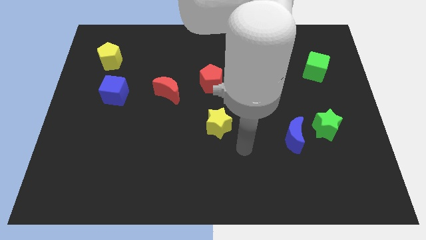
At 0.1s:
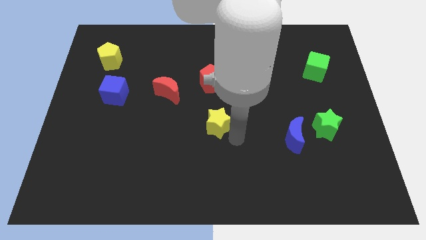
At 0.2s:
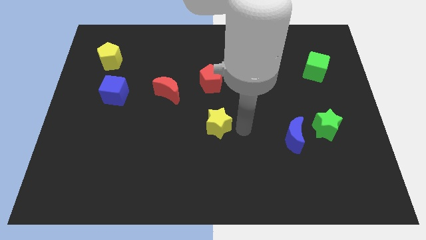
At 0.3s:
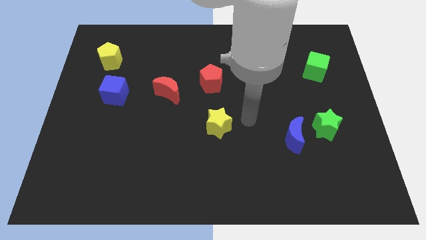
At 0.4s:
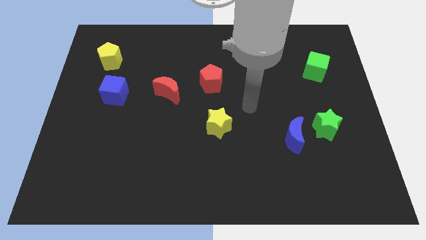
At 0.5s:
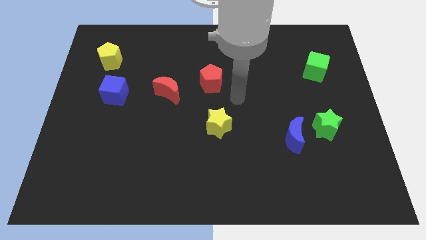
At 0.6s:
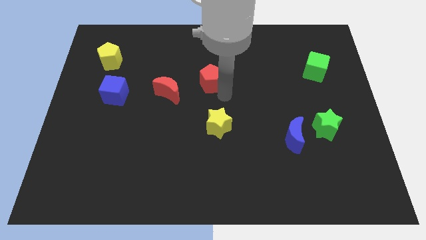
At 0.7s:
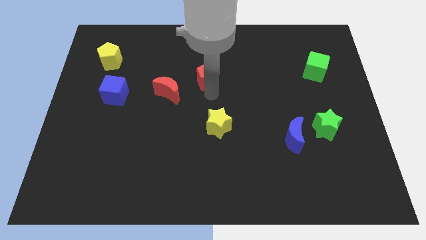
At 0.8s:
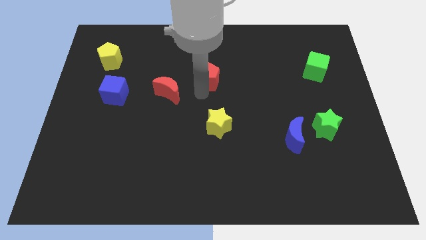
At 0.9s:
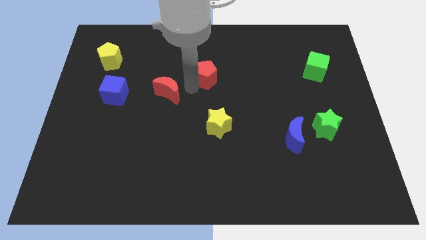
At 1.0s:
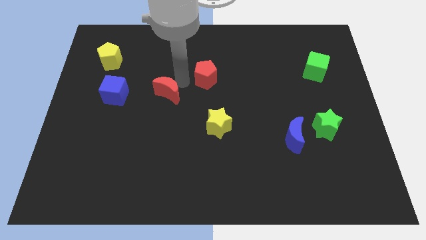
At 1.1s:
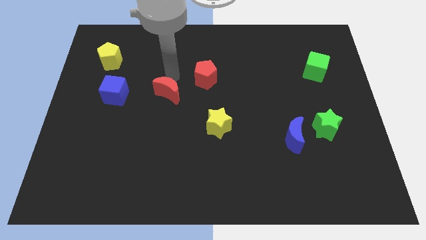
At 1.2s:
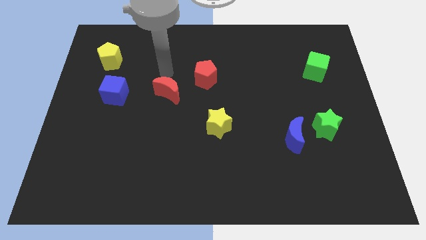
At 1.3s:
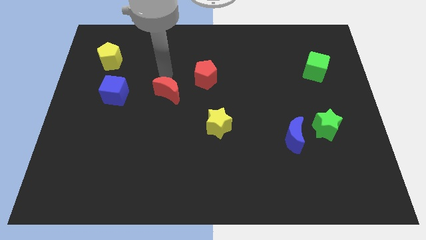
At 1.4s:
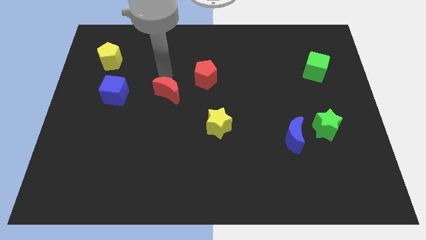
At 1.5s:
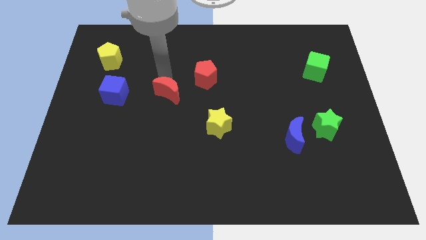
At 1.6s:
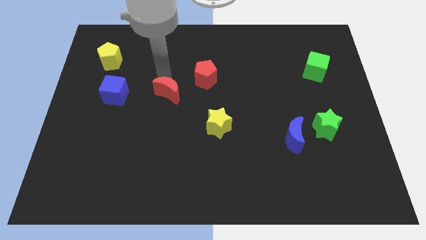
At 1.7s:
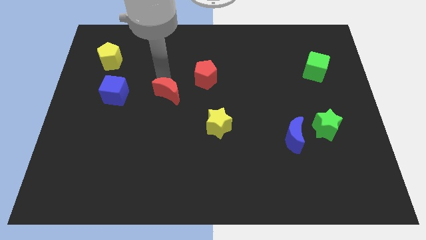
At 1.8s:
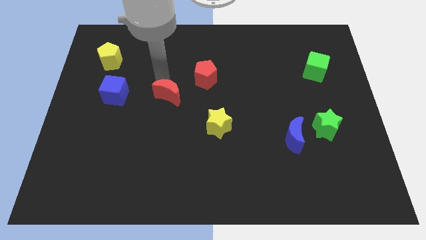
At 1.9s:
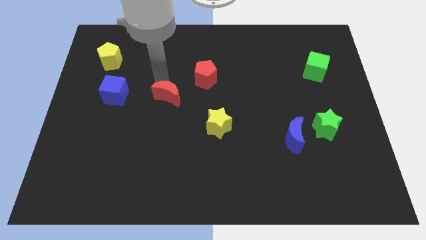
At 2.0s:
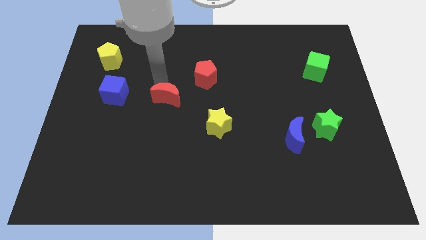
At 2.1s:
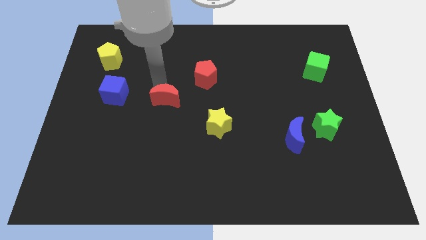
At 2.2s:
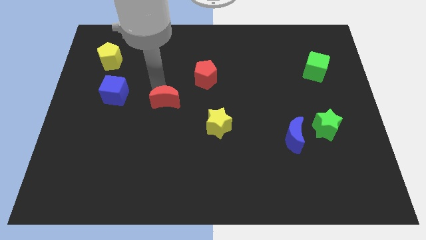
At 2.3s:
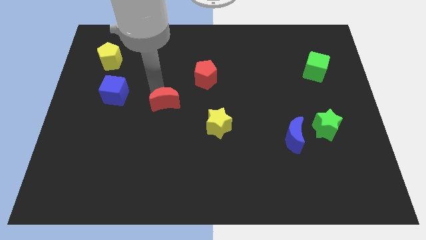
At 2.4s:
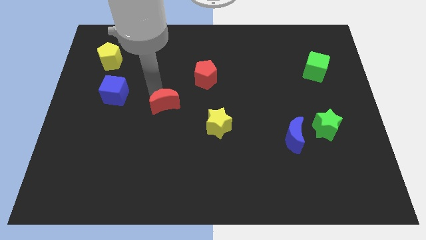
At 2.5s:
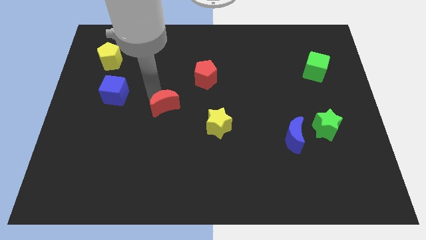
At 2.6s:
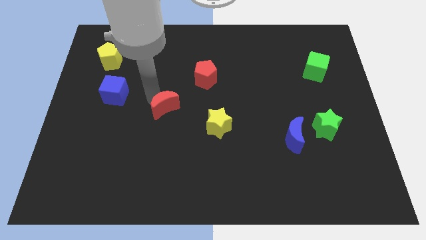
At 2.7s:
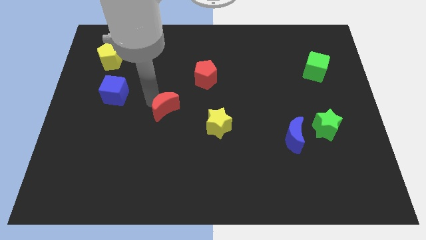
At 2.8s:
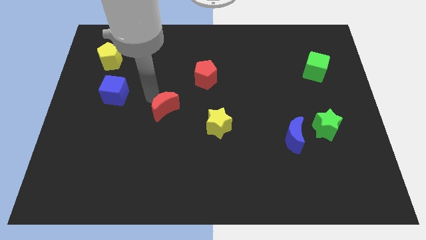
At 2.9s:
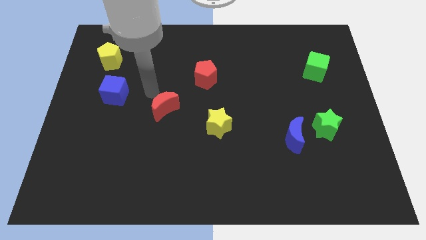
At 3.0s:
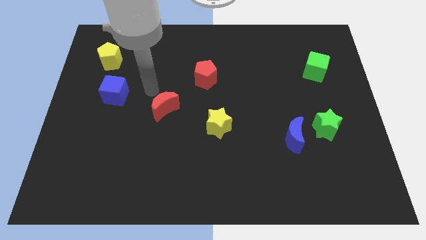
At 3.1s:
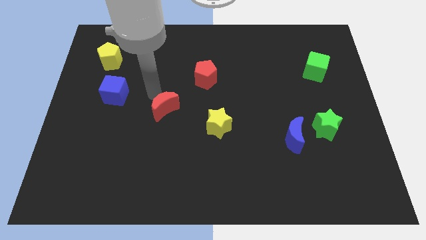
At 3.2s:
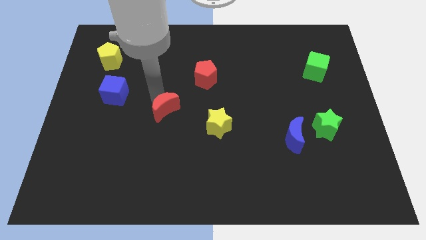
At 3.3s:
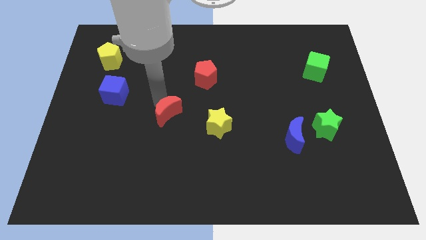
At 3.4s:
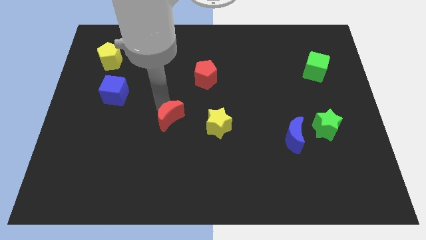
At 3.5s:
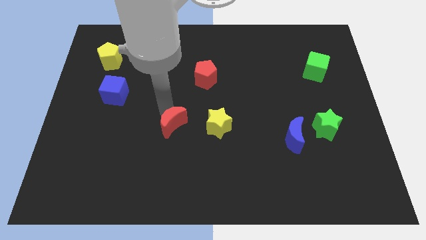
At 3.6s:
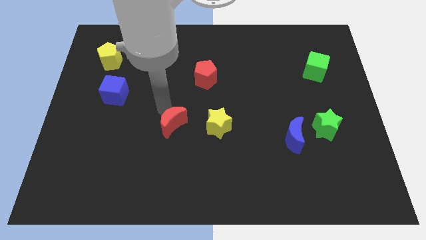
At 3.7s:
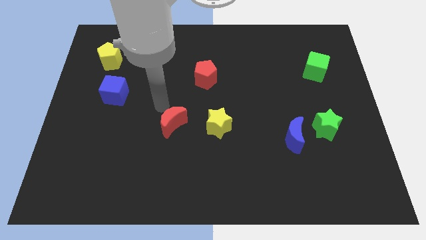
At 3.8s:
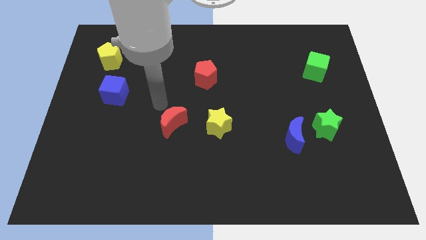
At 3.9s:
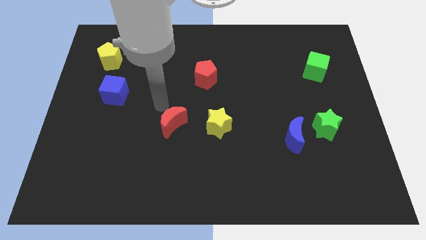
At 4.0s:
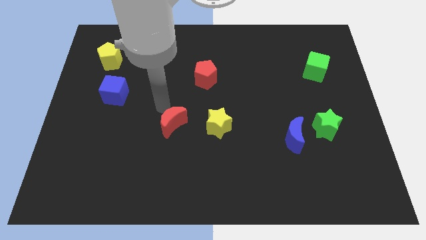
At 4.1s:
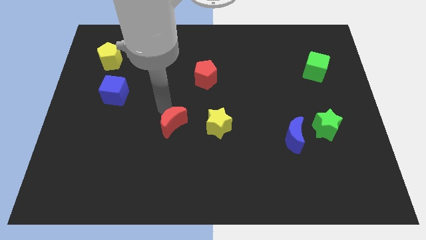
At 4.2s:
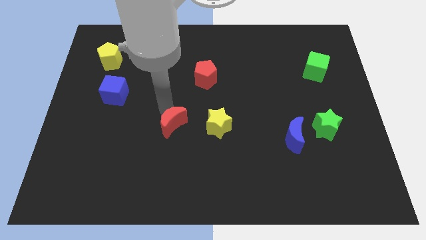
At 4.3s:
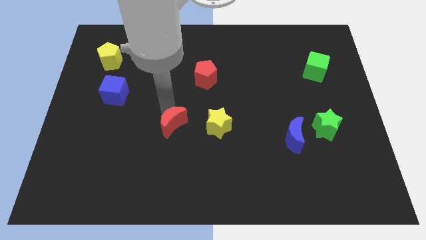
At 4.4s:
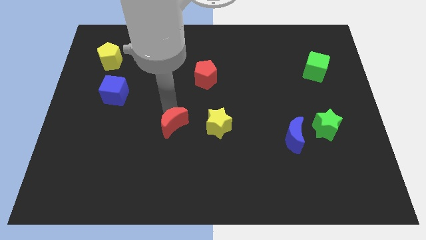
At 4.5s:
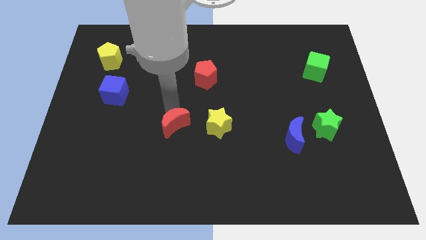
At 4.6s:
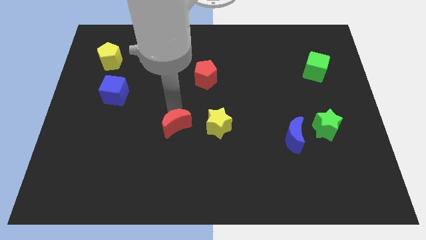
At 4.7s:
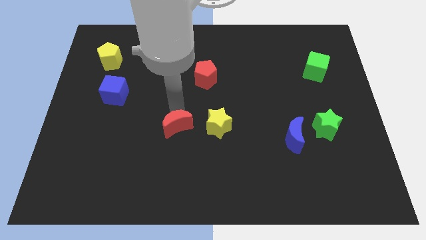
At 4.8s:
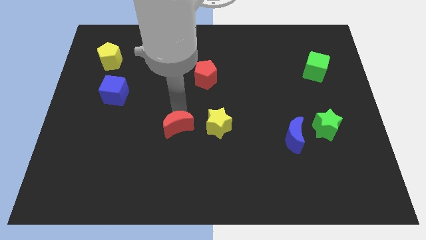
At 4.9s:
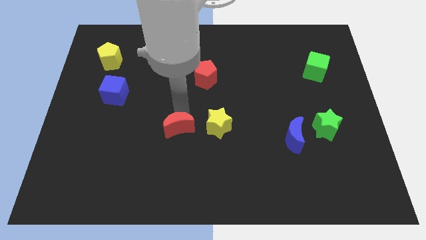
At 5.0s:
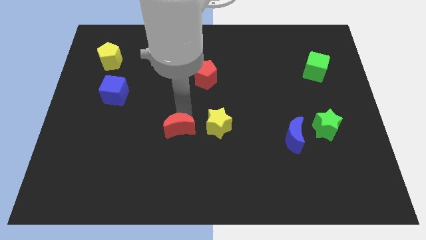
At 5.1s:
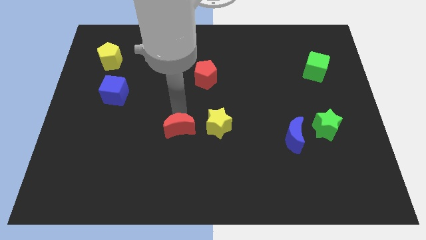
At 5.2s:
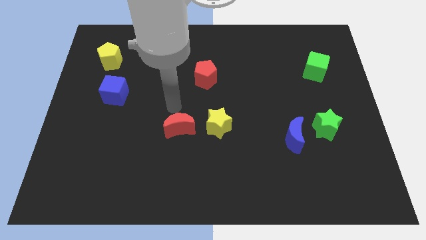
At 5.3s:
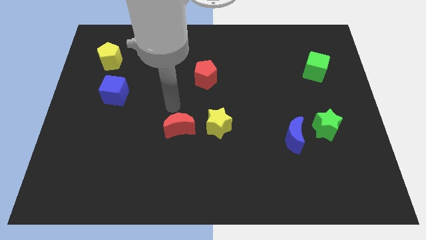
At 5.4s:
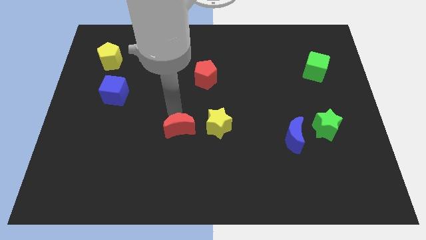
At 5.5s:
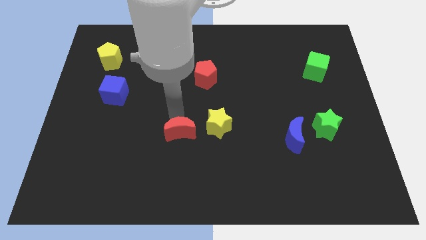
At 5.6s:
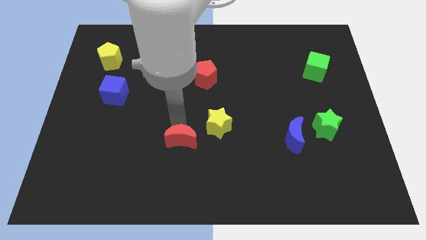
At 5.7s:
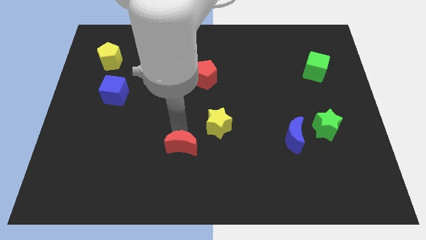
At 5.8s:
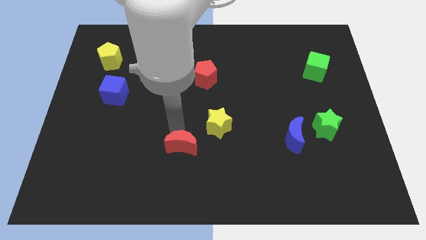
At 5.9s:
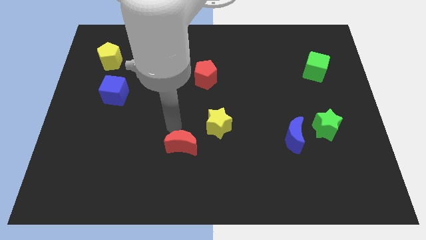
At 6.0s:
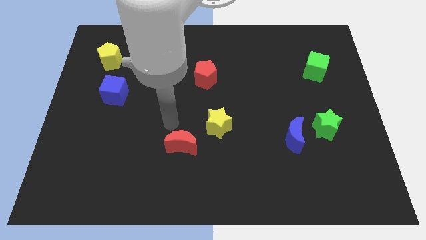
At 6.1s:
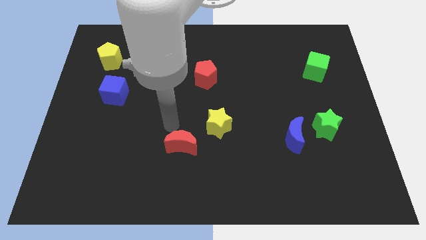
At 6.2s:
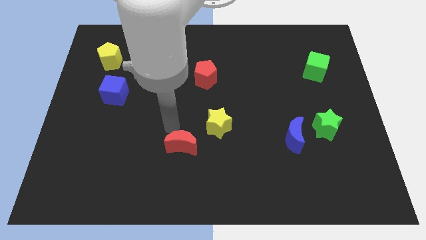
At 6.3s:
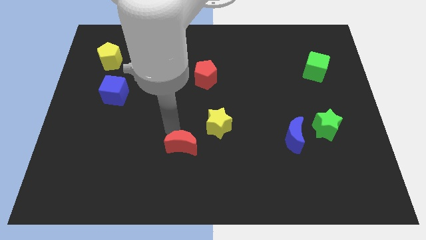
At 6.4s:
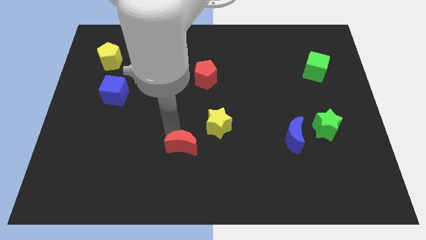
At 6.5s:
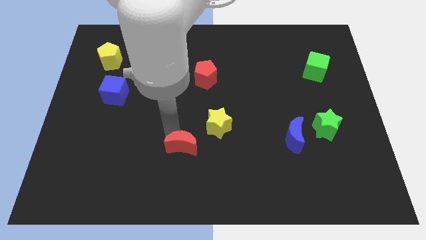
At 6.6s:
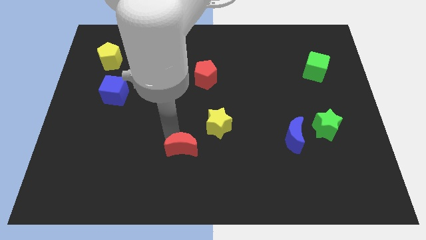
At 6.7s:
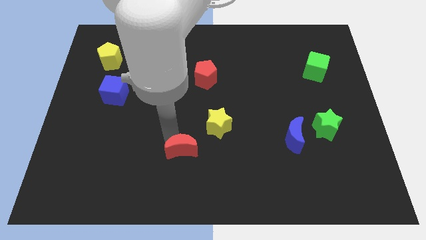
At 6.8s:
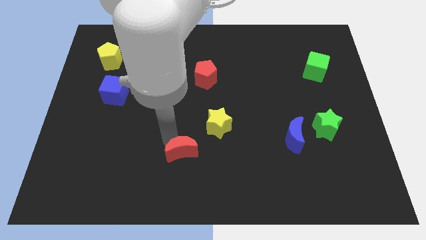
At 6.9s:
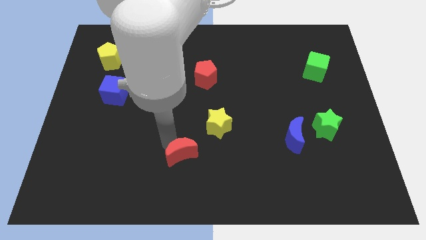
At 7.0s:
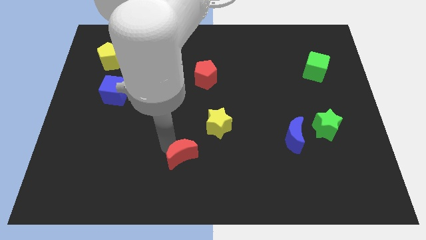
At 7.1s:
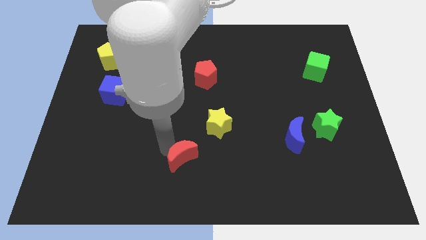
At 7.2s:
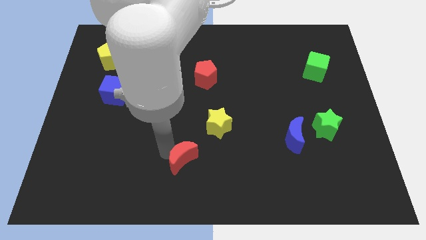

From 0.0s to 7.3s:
put the red moon to the bottom side

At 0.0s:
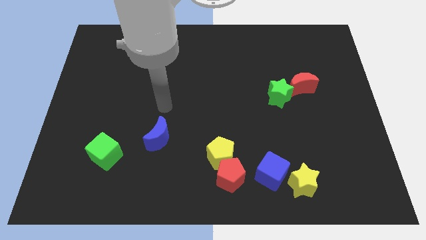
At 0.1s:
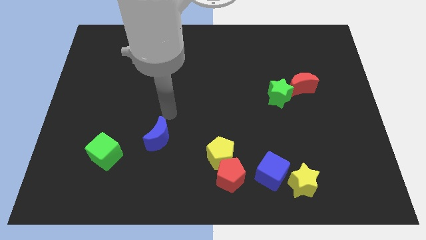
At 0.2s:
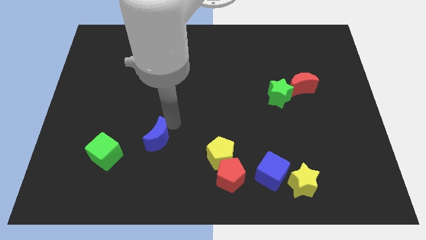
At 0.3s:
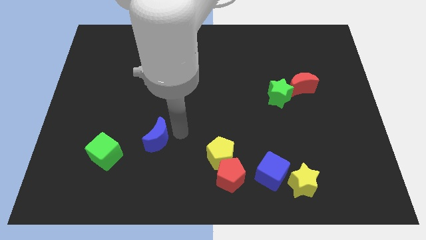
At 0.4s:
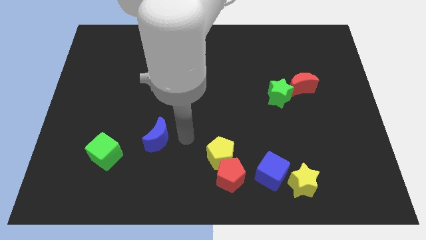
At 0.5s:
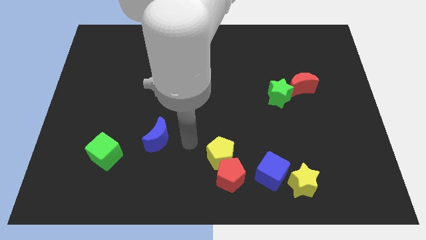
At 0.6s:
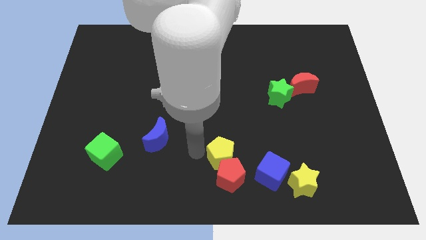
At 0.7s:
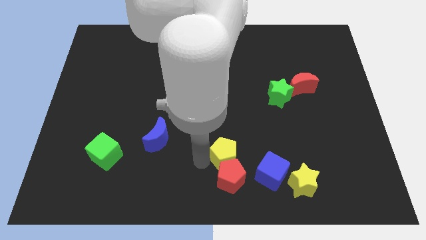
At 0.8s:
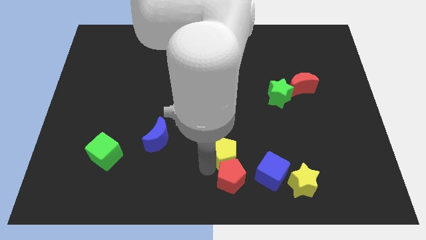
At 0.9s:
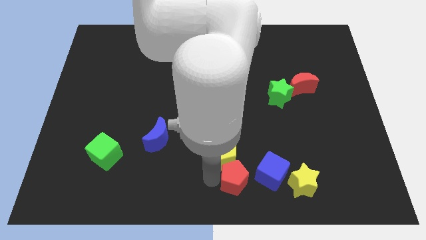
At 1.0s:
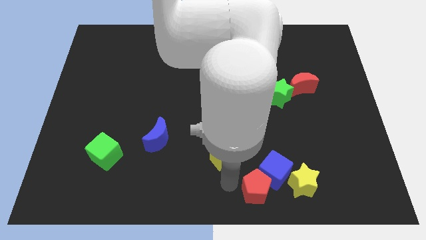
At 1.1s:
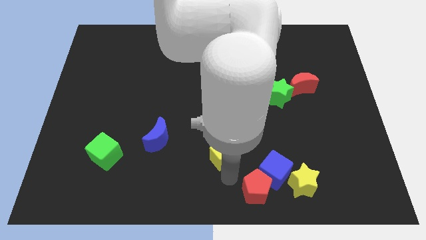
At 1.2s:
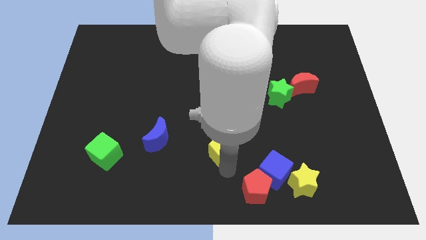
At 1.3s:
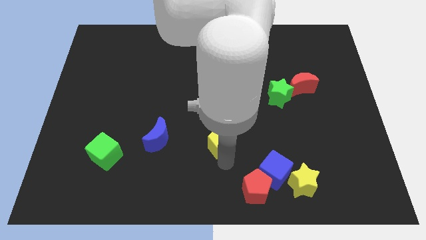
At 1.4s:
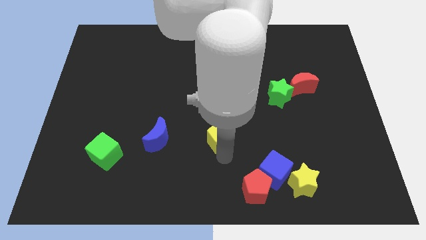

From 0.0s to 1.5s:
slide the yellow pentagon to the middle of the board
